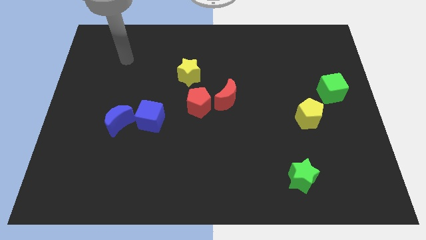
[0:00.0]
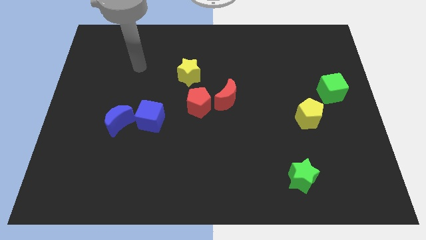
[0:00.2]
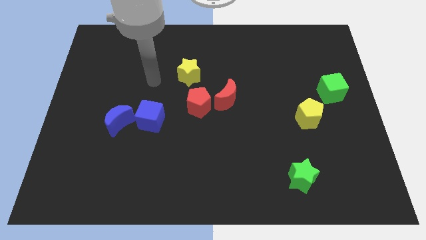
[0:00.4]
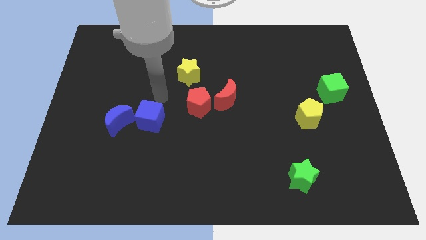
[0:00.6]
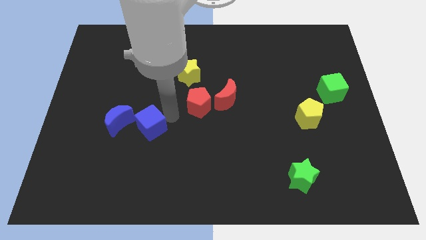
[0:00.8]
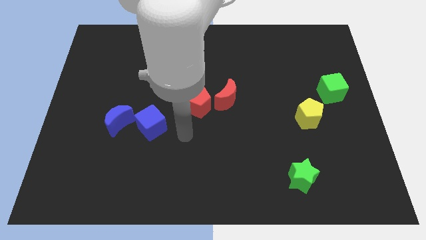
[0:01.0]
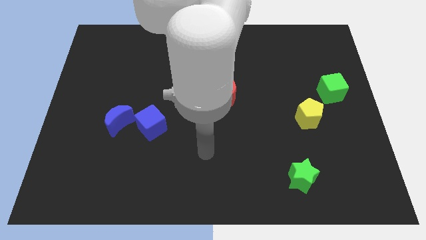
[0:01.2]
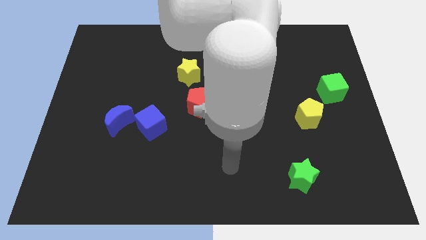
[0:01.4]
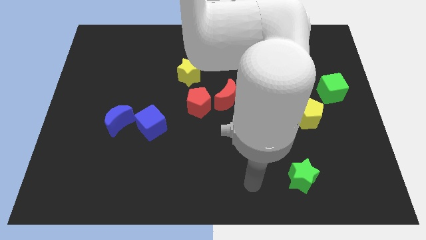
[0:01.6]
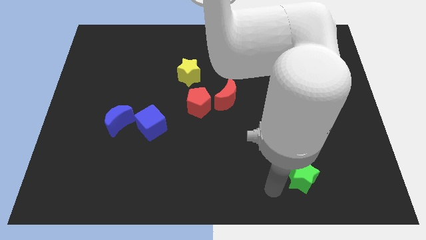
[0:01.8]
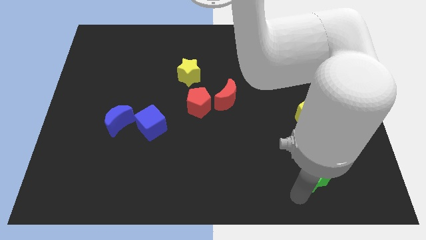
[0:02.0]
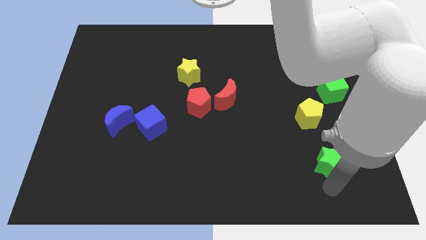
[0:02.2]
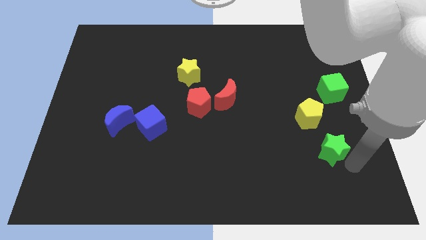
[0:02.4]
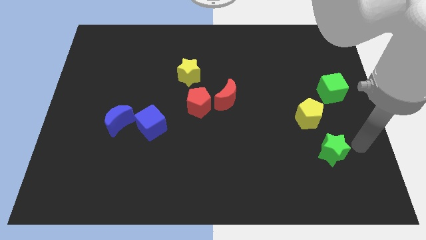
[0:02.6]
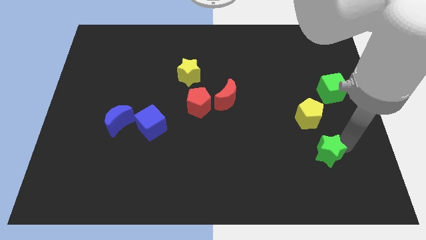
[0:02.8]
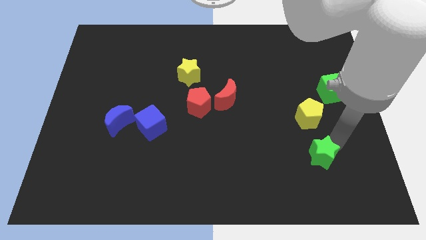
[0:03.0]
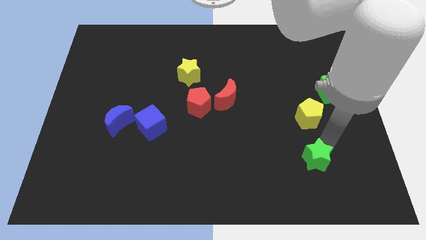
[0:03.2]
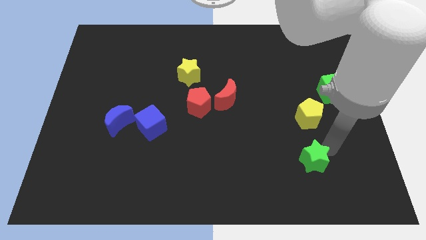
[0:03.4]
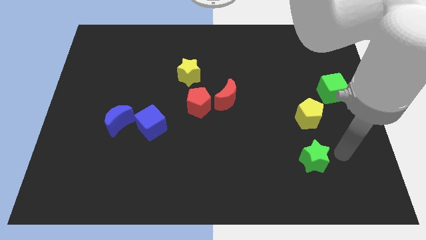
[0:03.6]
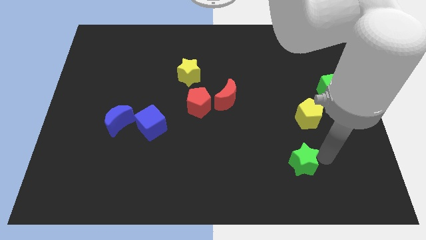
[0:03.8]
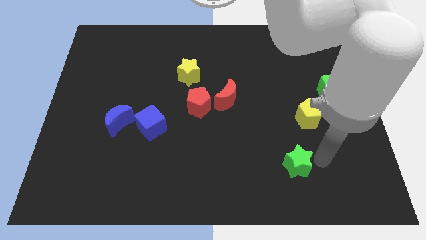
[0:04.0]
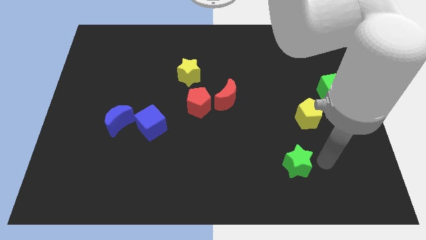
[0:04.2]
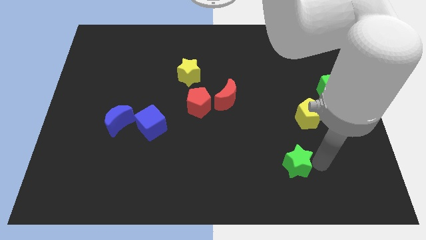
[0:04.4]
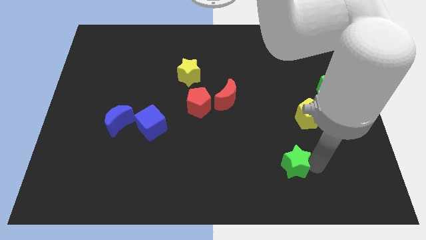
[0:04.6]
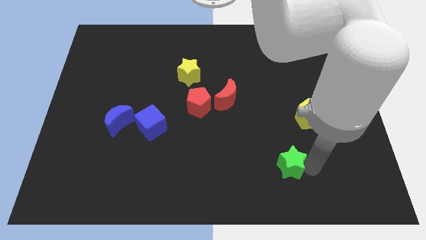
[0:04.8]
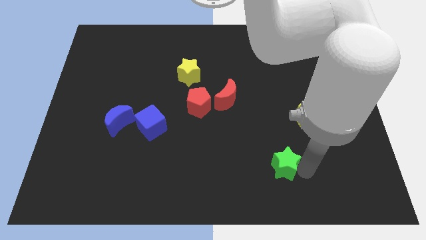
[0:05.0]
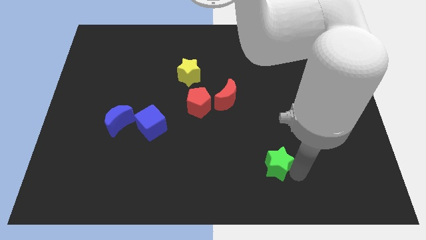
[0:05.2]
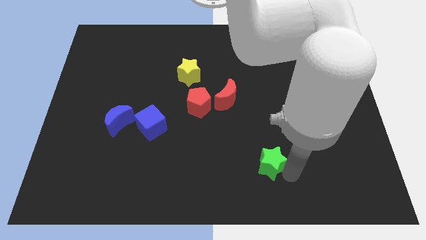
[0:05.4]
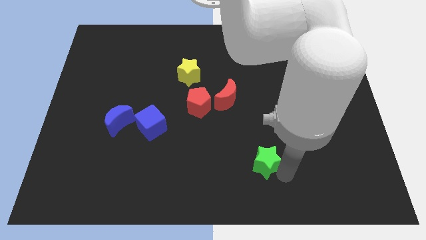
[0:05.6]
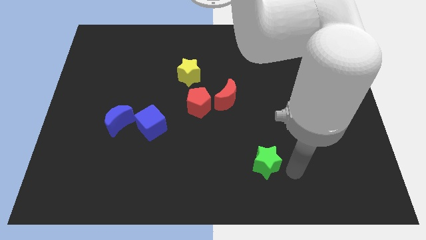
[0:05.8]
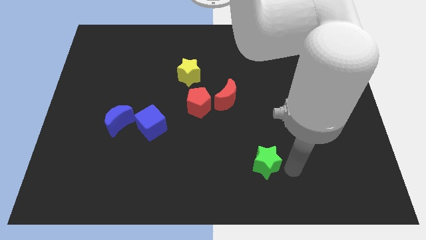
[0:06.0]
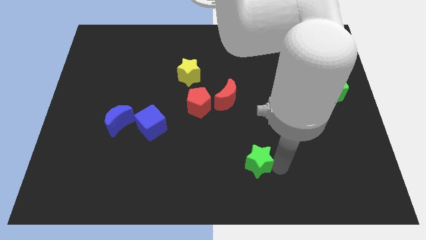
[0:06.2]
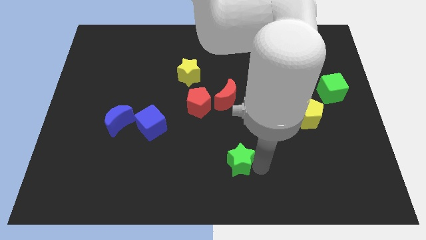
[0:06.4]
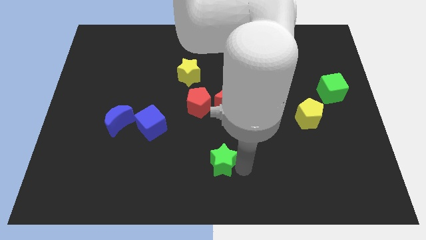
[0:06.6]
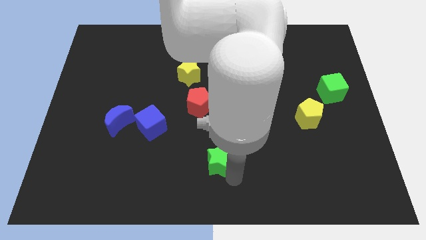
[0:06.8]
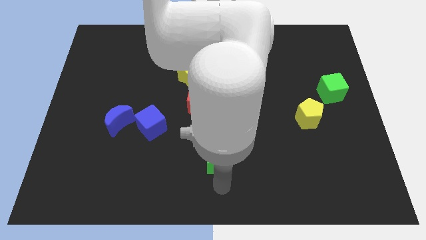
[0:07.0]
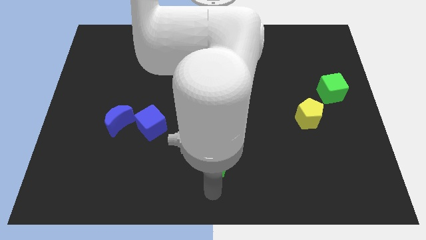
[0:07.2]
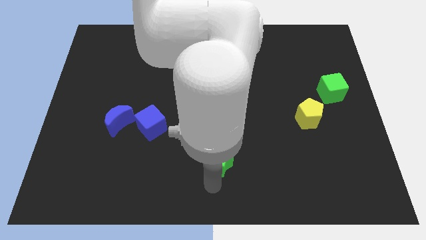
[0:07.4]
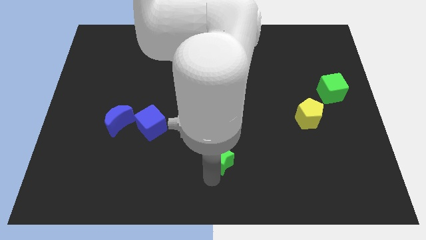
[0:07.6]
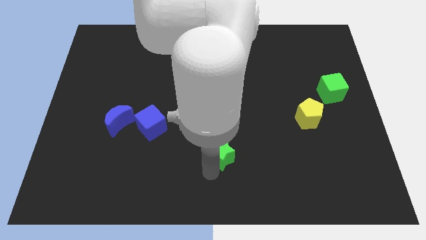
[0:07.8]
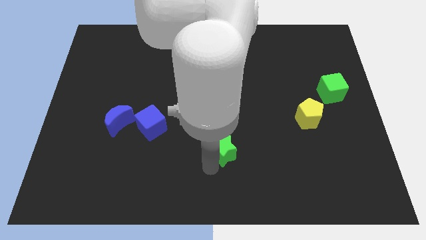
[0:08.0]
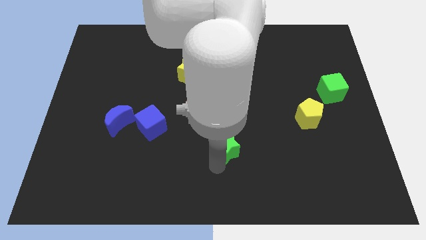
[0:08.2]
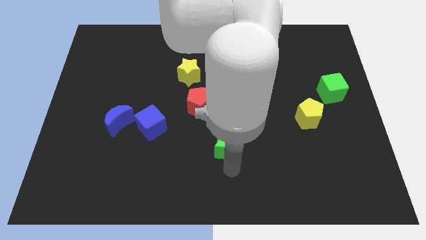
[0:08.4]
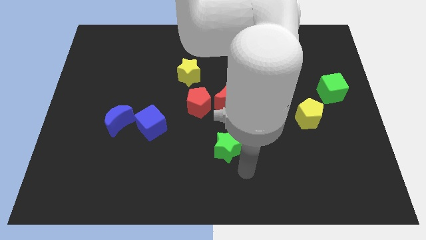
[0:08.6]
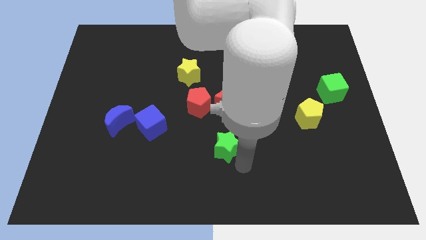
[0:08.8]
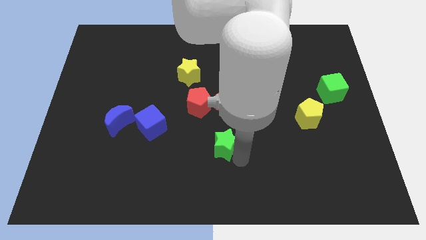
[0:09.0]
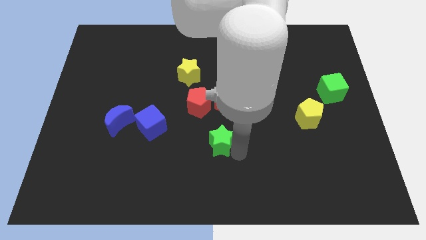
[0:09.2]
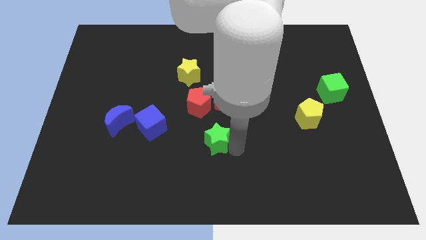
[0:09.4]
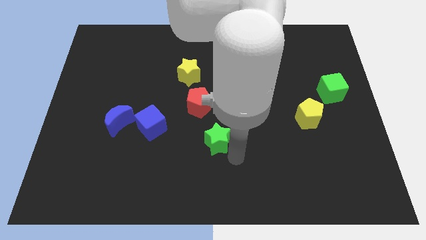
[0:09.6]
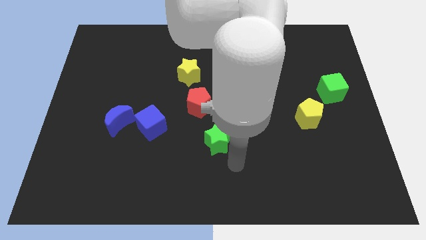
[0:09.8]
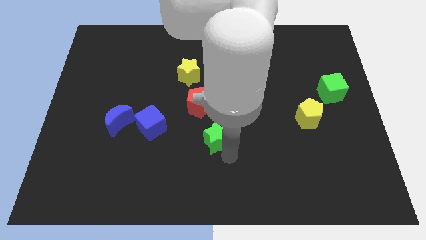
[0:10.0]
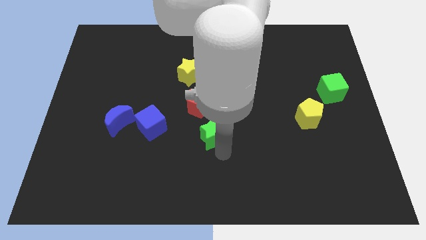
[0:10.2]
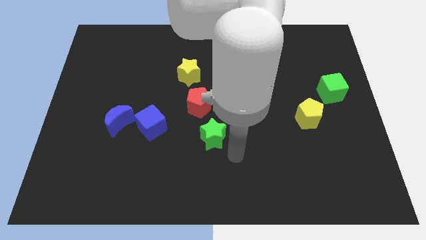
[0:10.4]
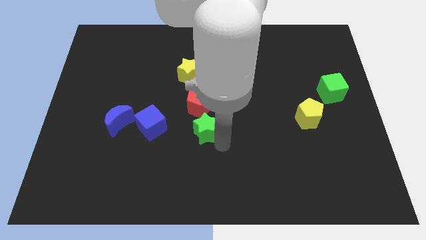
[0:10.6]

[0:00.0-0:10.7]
move the green star up and then left

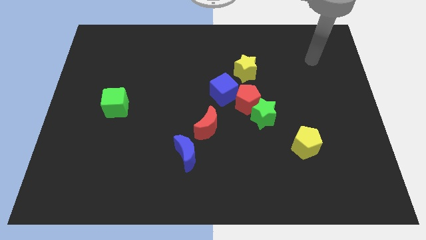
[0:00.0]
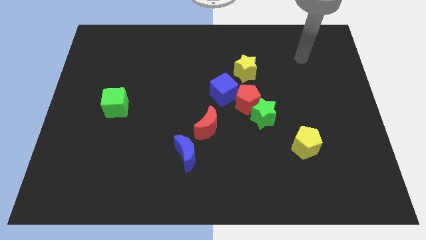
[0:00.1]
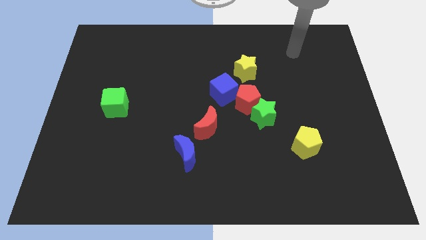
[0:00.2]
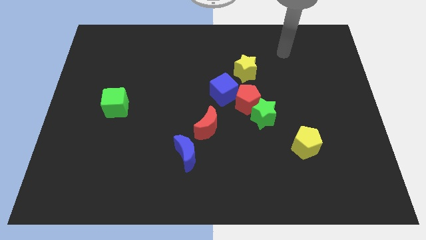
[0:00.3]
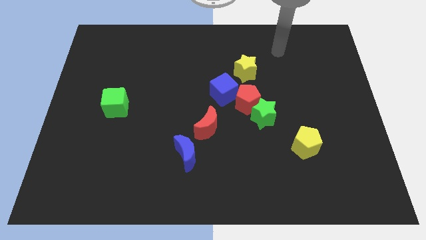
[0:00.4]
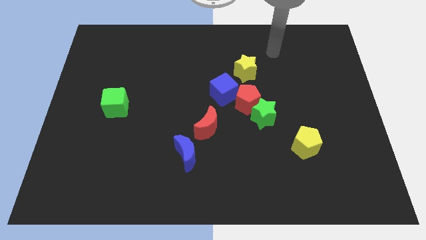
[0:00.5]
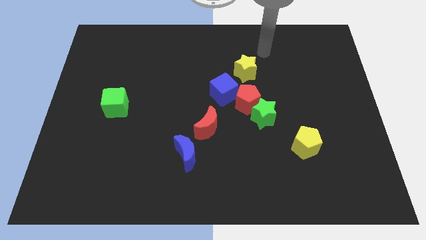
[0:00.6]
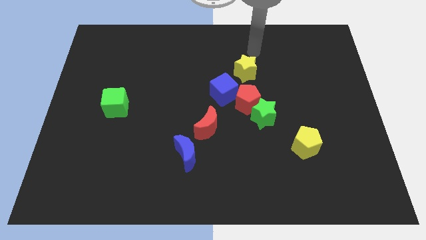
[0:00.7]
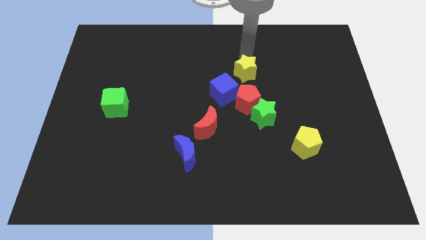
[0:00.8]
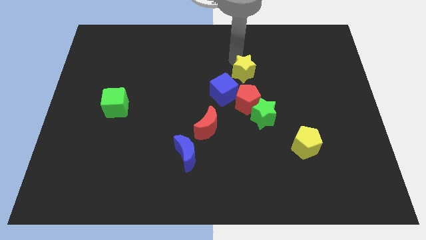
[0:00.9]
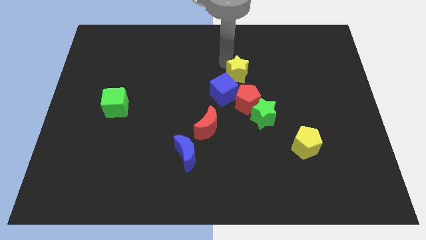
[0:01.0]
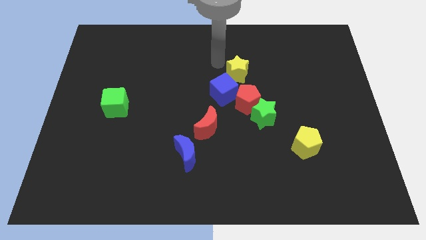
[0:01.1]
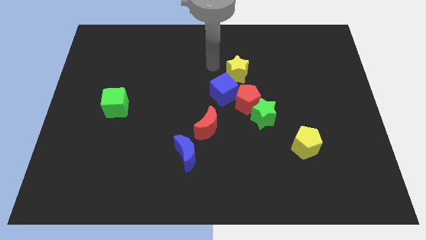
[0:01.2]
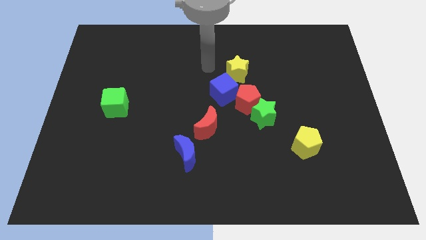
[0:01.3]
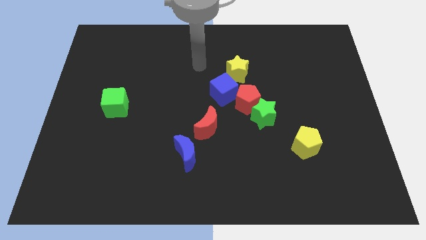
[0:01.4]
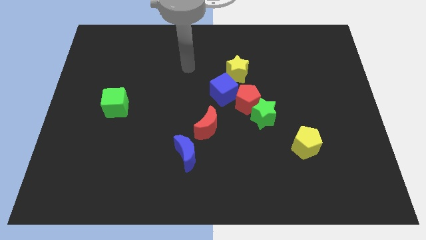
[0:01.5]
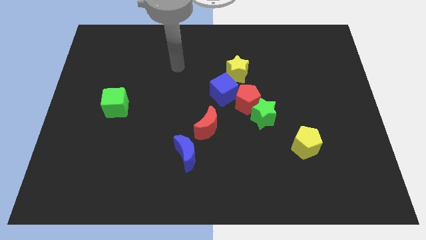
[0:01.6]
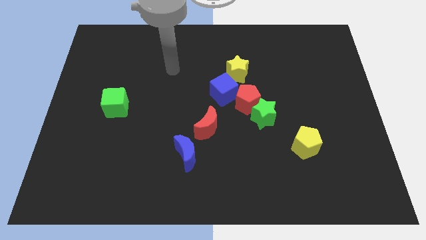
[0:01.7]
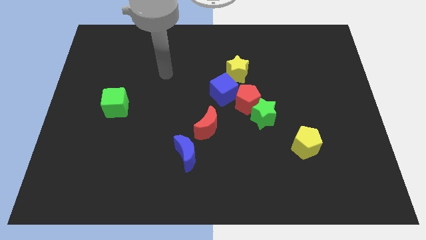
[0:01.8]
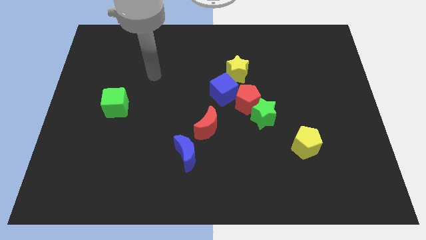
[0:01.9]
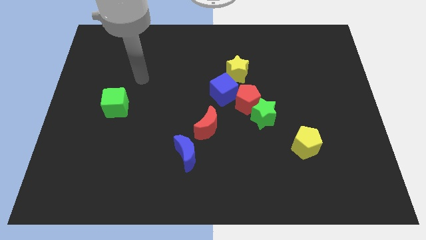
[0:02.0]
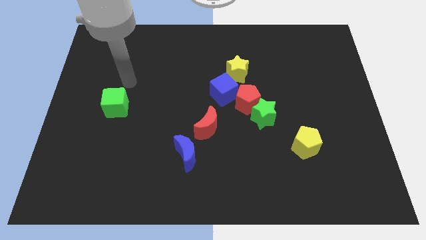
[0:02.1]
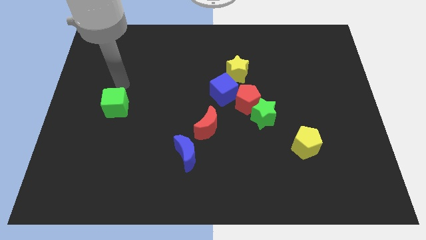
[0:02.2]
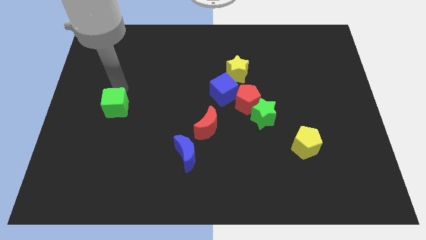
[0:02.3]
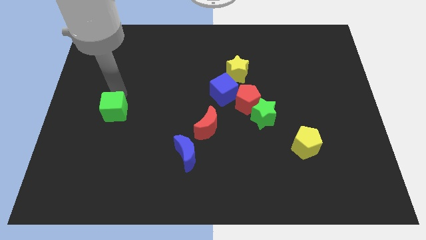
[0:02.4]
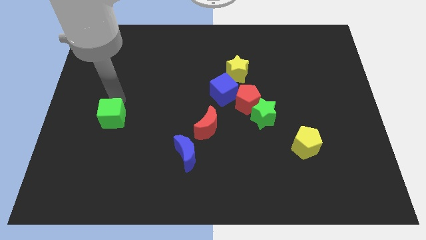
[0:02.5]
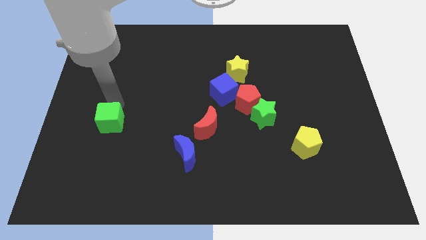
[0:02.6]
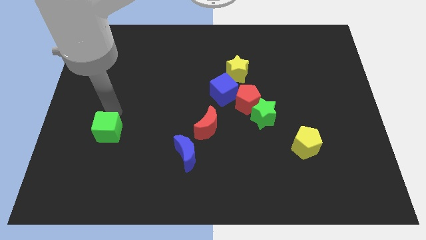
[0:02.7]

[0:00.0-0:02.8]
slide the green cube down a little
